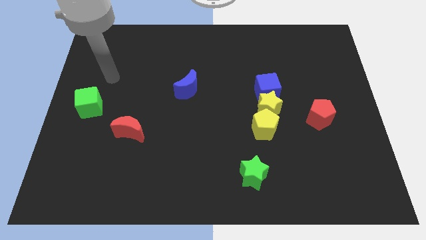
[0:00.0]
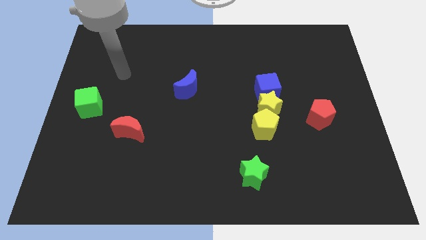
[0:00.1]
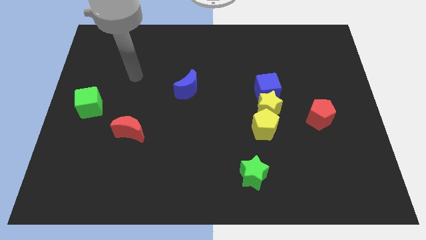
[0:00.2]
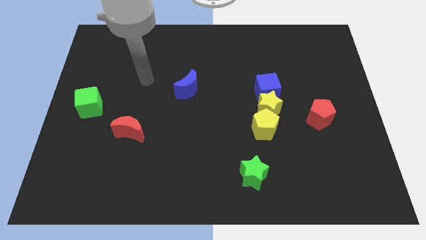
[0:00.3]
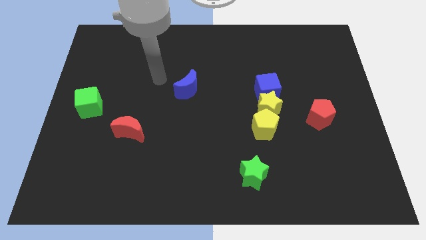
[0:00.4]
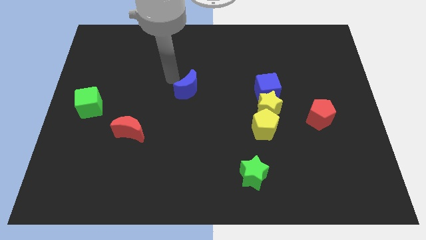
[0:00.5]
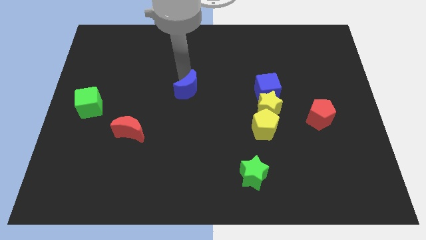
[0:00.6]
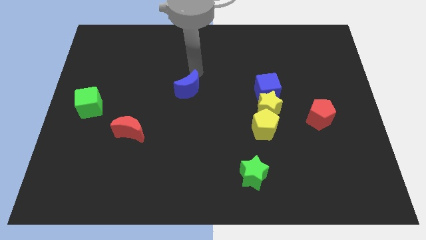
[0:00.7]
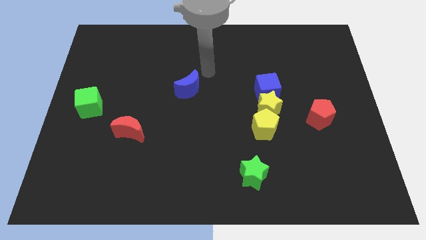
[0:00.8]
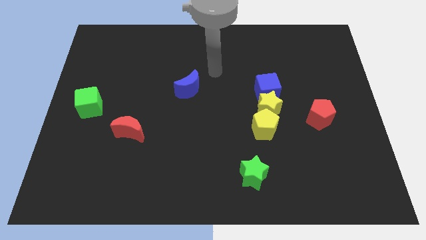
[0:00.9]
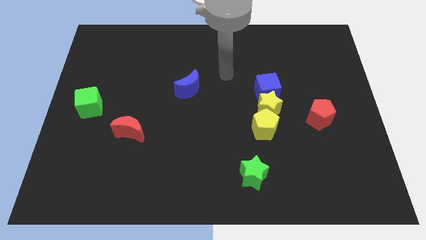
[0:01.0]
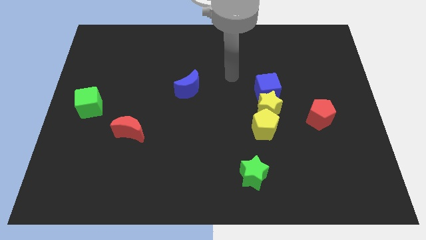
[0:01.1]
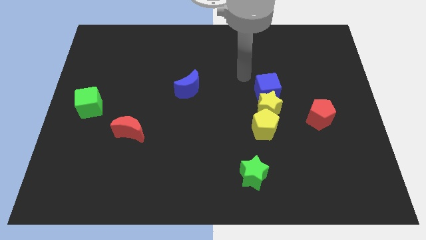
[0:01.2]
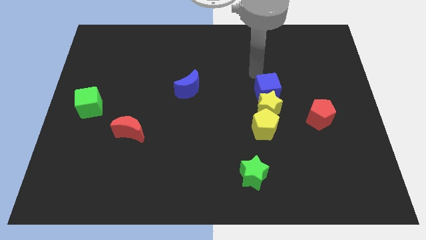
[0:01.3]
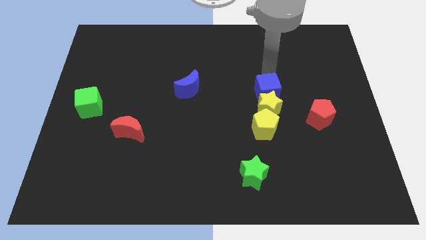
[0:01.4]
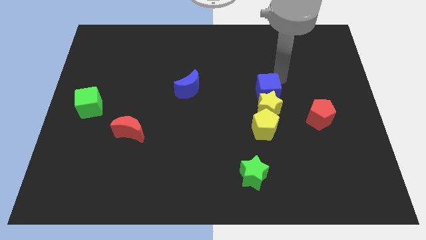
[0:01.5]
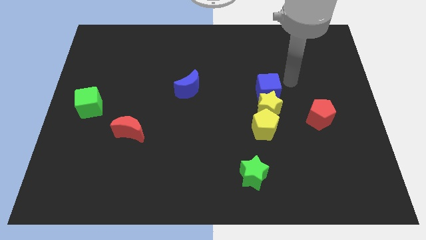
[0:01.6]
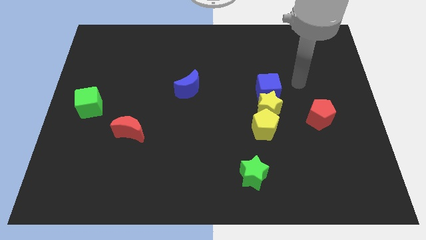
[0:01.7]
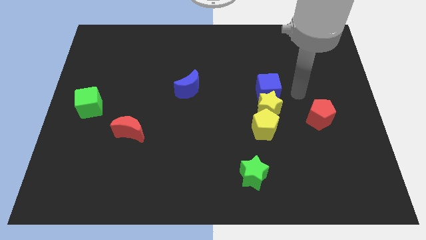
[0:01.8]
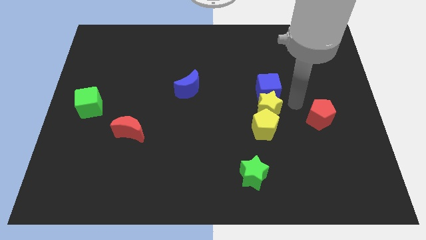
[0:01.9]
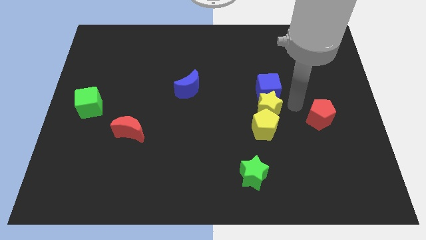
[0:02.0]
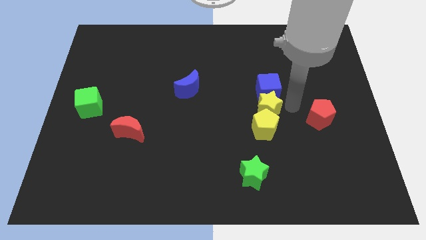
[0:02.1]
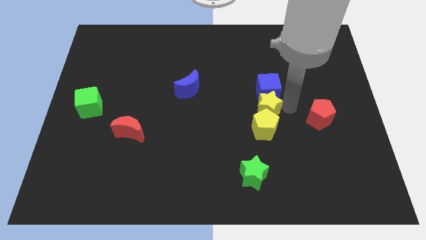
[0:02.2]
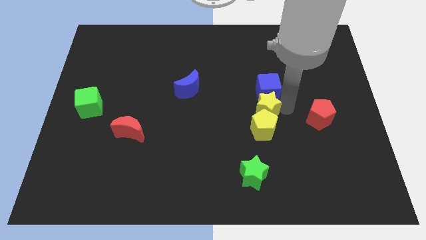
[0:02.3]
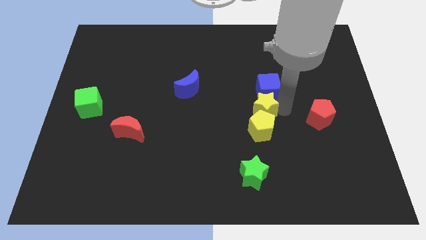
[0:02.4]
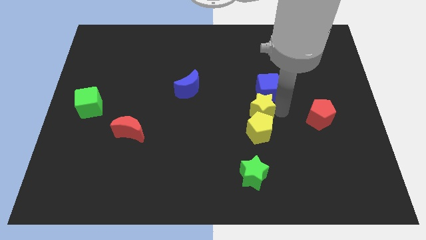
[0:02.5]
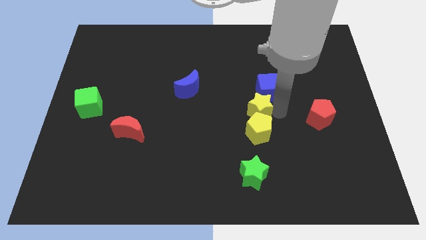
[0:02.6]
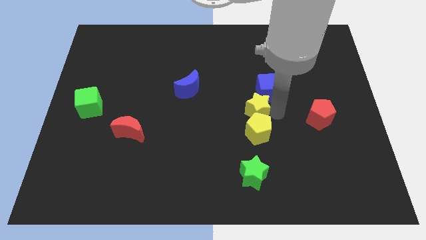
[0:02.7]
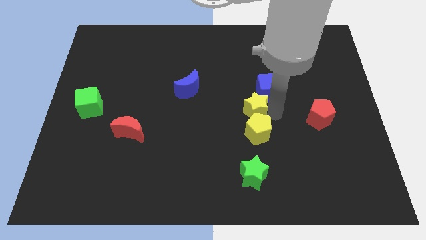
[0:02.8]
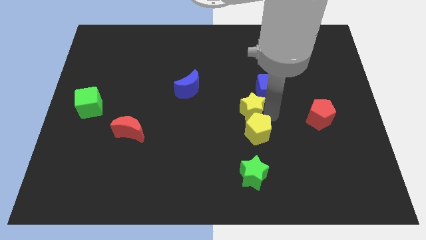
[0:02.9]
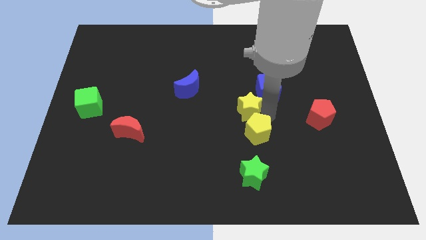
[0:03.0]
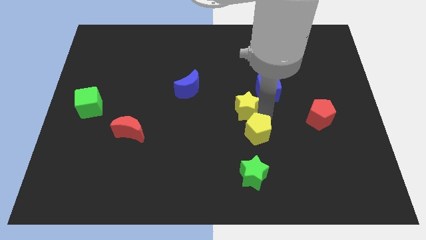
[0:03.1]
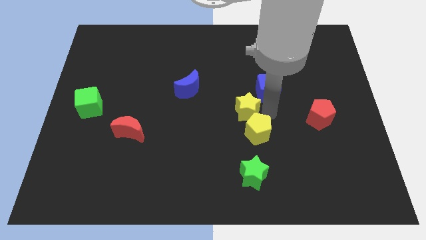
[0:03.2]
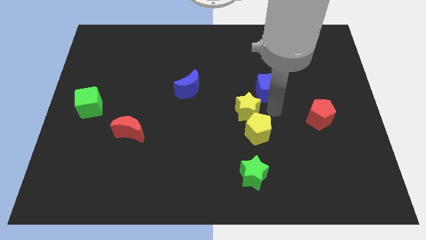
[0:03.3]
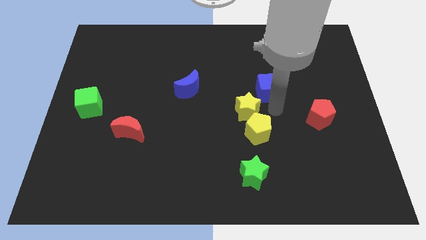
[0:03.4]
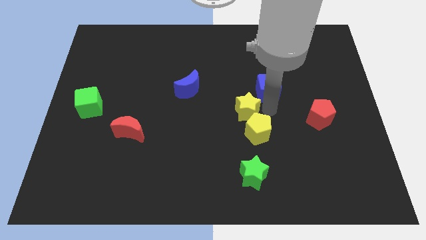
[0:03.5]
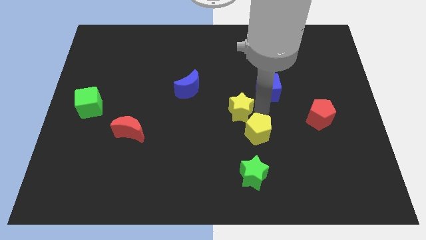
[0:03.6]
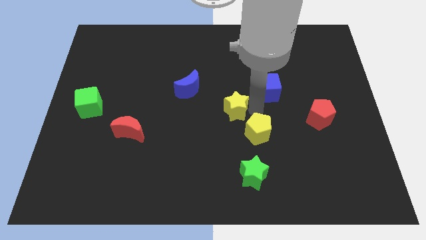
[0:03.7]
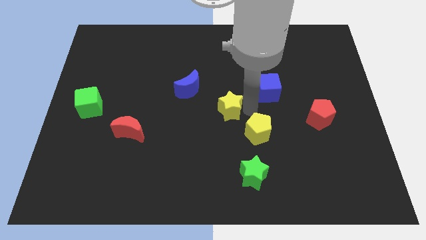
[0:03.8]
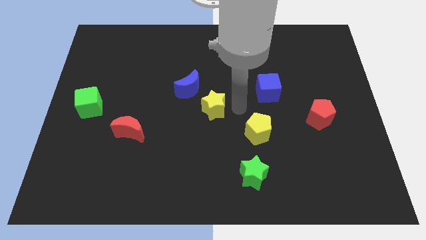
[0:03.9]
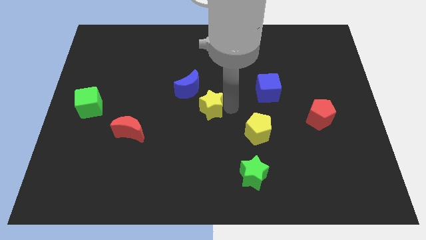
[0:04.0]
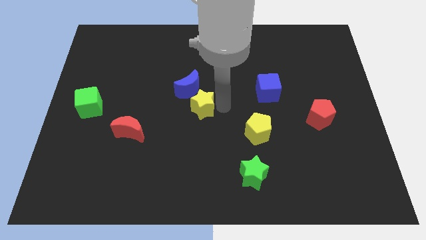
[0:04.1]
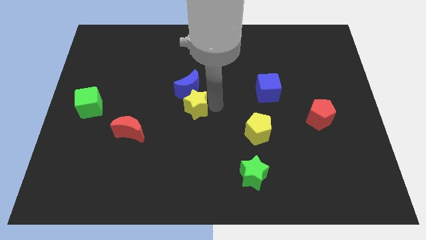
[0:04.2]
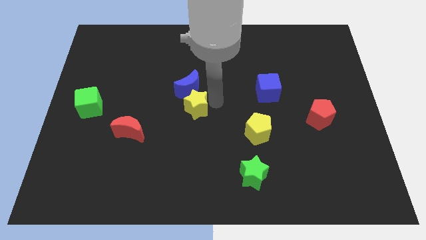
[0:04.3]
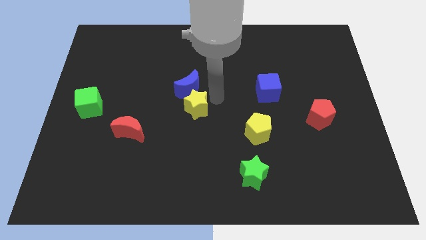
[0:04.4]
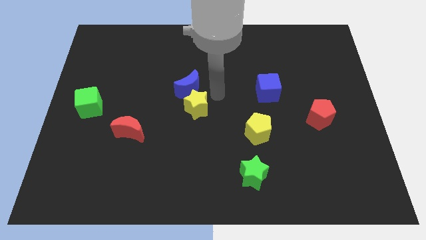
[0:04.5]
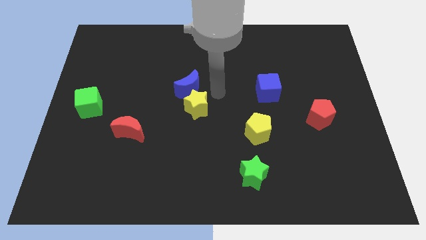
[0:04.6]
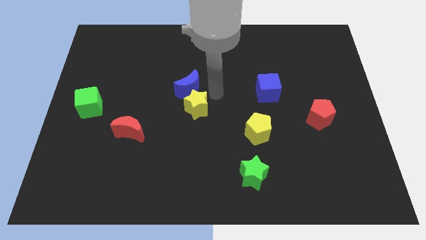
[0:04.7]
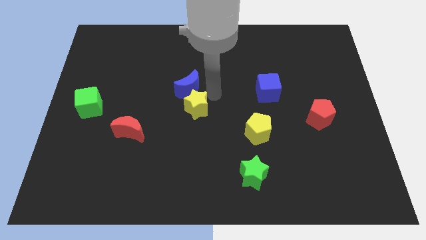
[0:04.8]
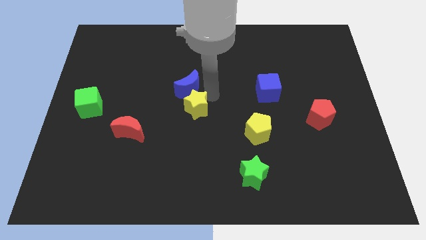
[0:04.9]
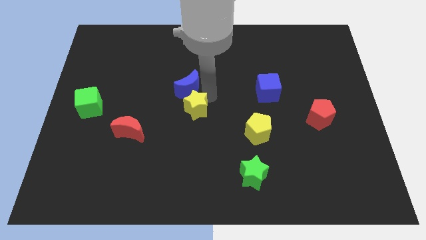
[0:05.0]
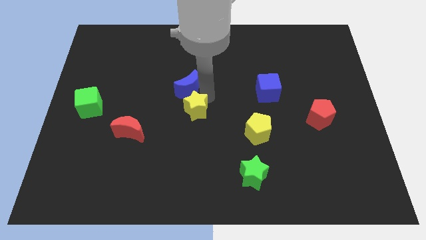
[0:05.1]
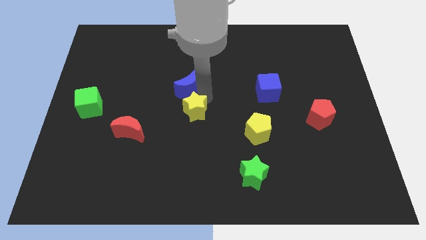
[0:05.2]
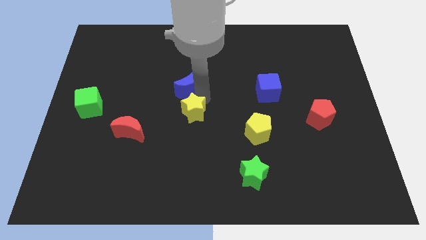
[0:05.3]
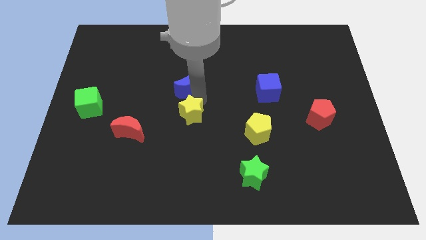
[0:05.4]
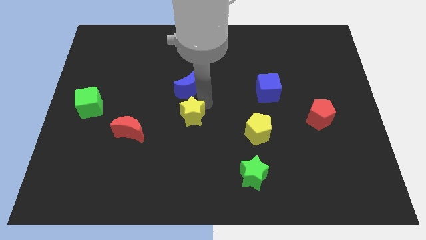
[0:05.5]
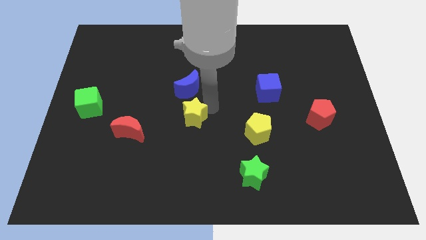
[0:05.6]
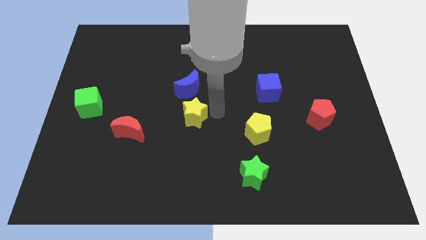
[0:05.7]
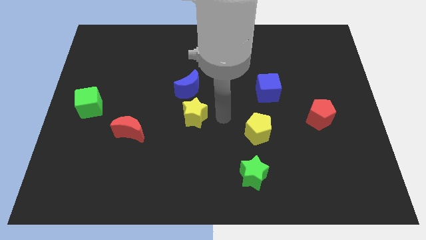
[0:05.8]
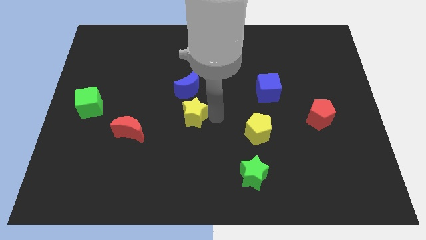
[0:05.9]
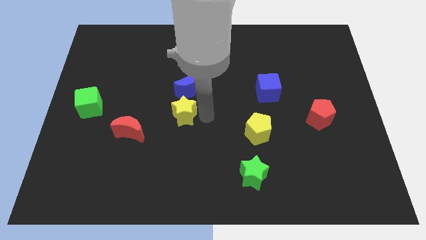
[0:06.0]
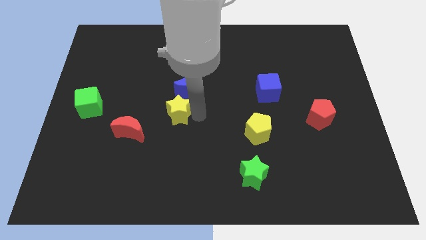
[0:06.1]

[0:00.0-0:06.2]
push the yellow star to the top right of the red moon

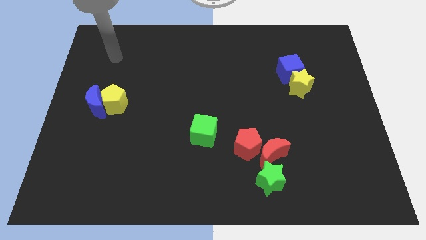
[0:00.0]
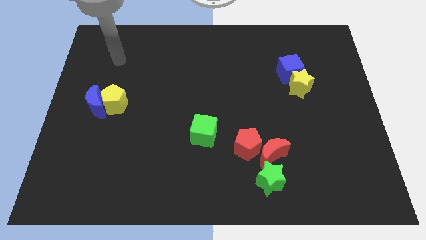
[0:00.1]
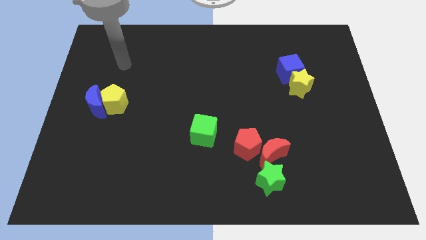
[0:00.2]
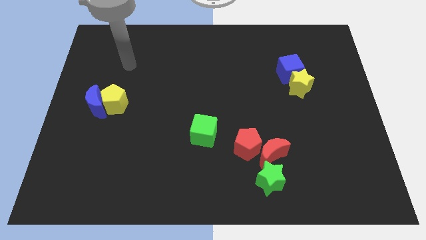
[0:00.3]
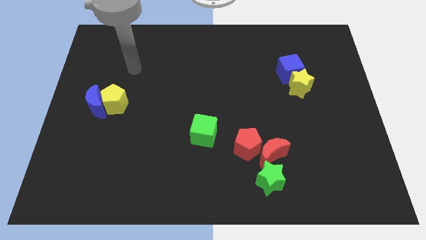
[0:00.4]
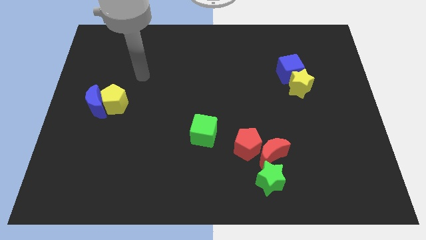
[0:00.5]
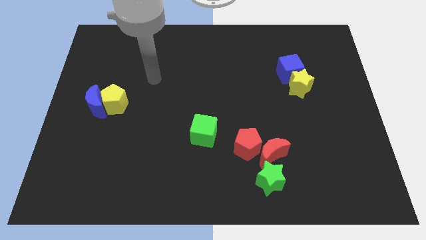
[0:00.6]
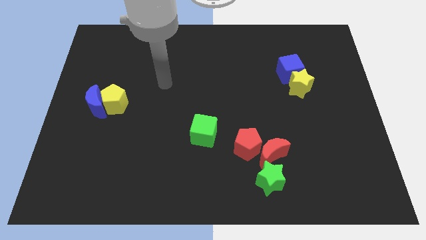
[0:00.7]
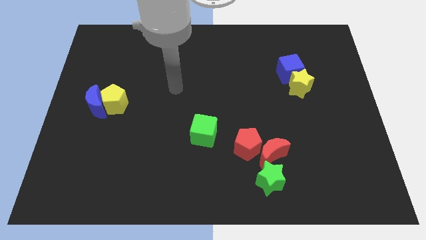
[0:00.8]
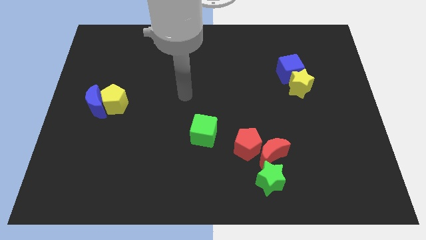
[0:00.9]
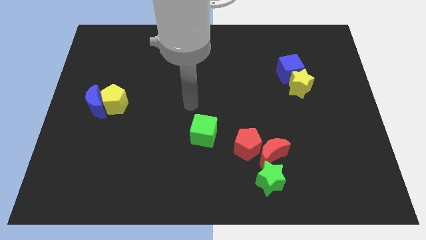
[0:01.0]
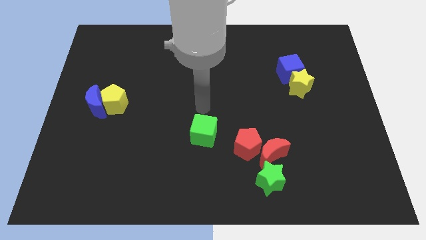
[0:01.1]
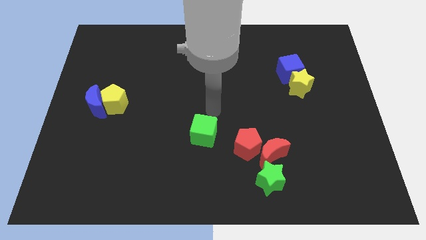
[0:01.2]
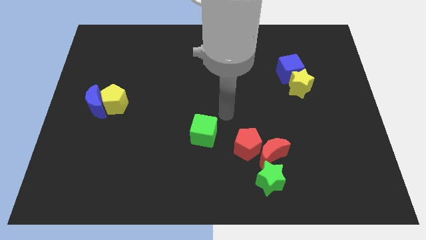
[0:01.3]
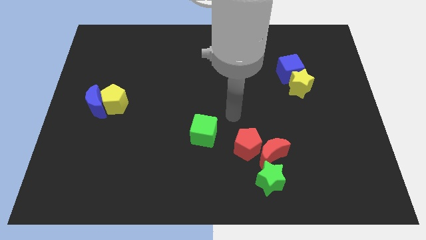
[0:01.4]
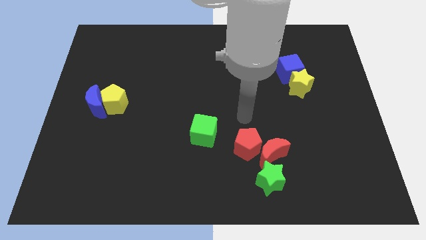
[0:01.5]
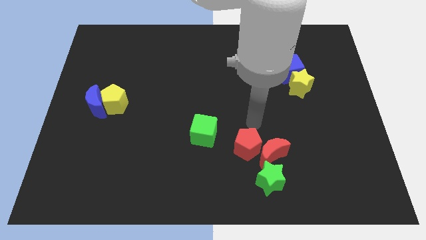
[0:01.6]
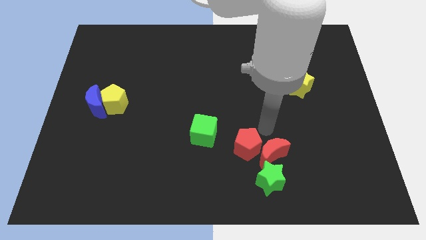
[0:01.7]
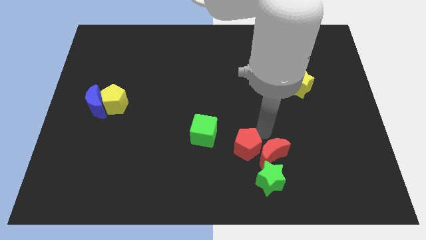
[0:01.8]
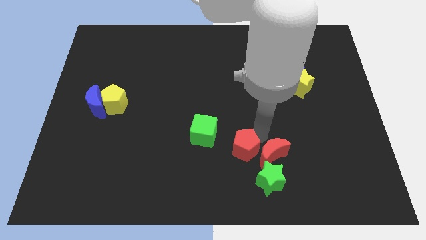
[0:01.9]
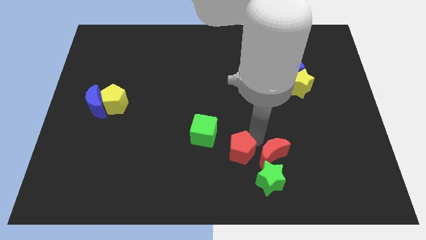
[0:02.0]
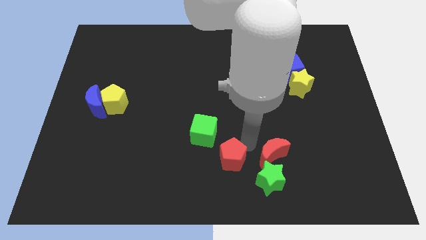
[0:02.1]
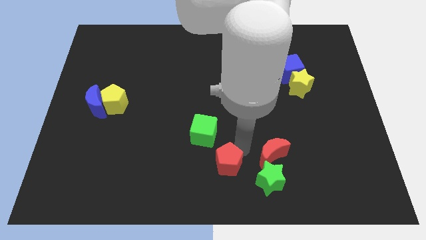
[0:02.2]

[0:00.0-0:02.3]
move the red pentagon to the left of the green star
